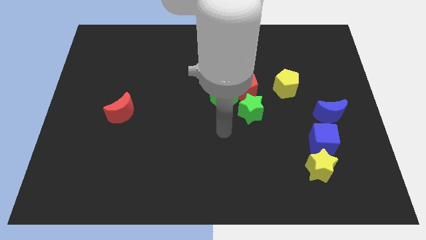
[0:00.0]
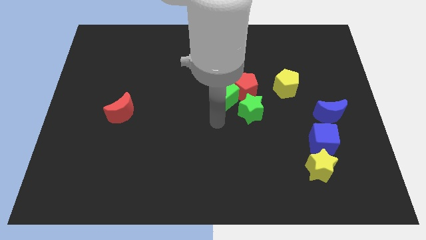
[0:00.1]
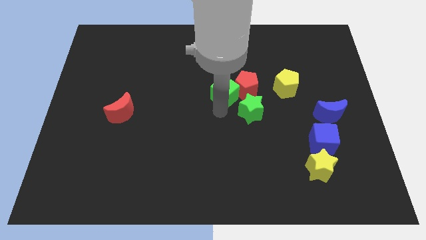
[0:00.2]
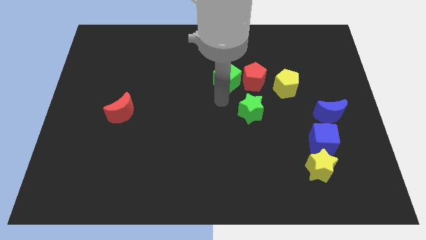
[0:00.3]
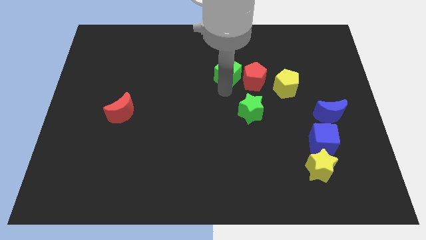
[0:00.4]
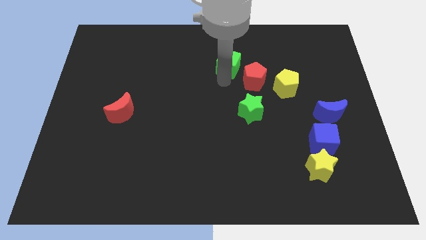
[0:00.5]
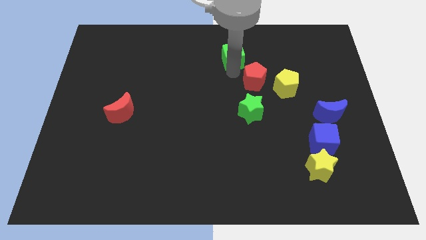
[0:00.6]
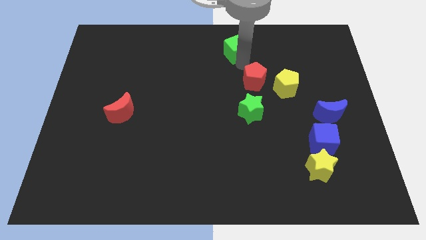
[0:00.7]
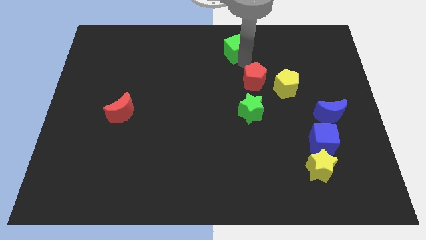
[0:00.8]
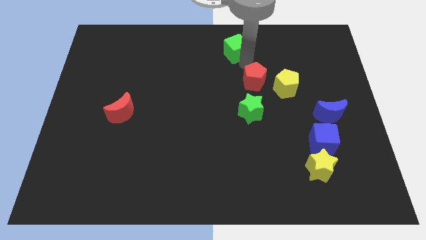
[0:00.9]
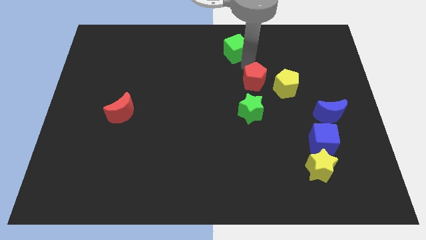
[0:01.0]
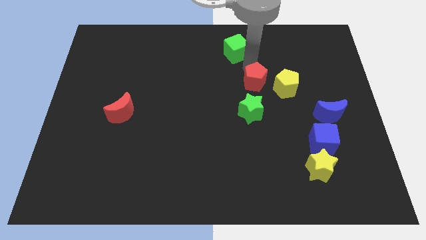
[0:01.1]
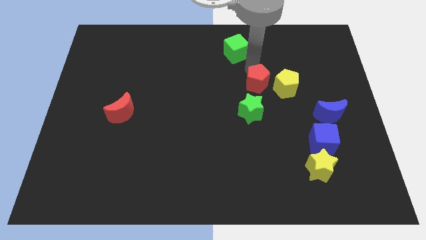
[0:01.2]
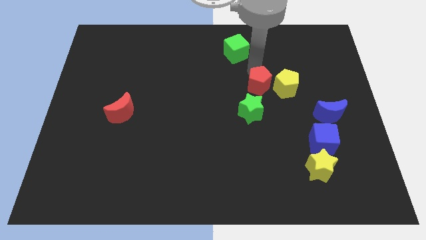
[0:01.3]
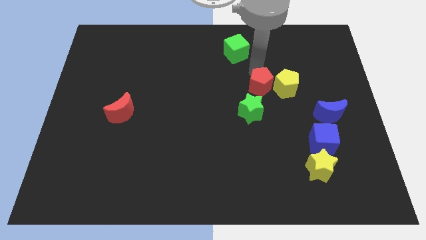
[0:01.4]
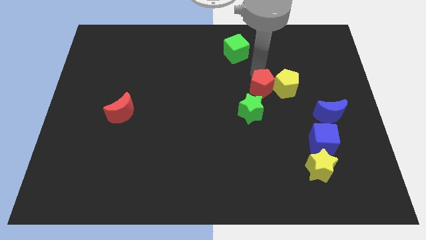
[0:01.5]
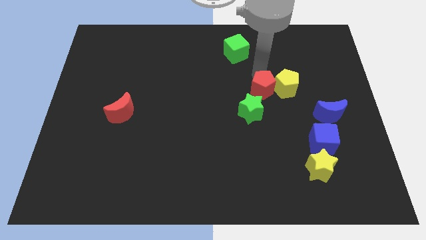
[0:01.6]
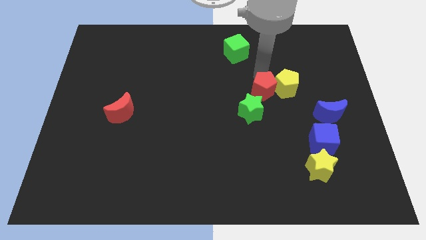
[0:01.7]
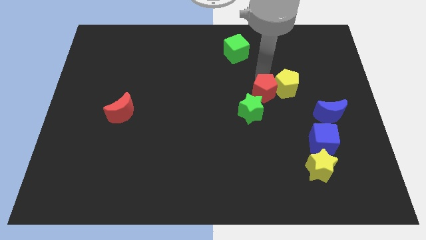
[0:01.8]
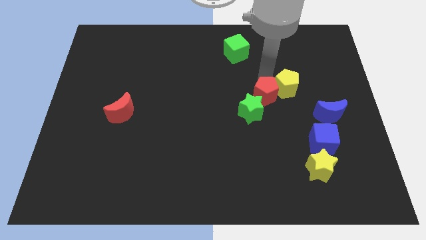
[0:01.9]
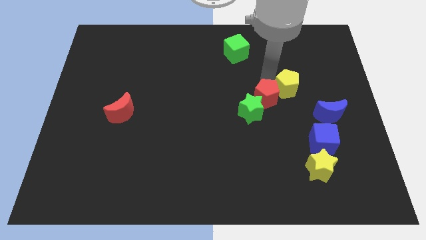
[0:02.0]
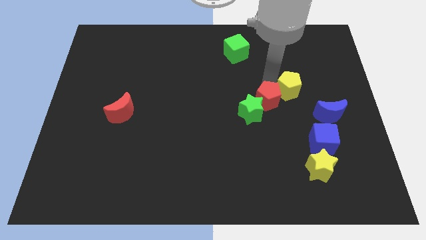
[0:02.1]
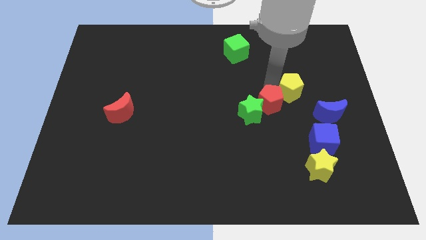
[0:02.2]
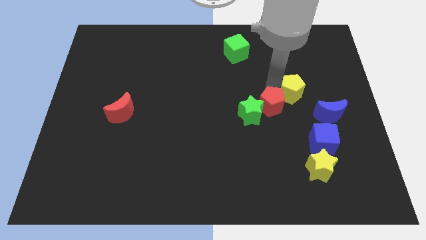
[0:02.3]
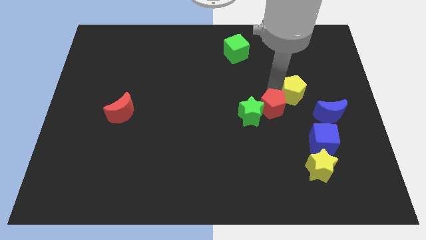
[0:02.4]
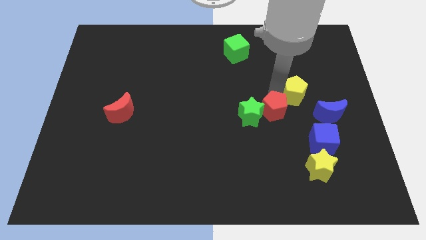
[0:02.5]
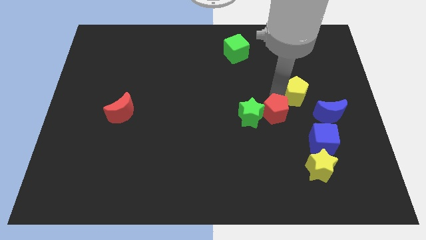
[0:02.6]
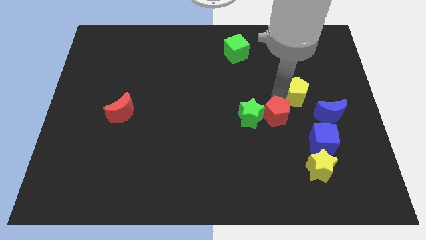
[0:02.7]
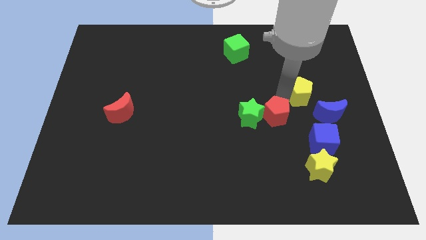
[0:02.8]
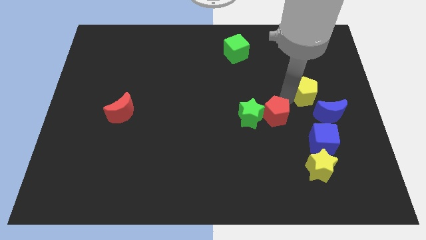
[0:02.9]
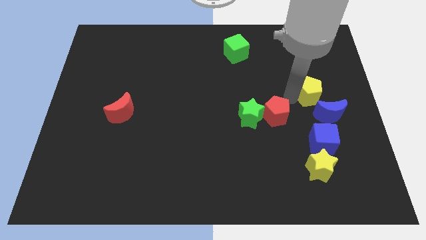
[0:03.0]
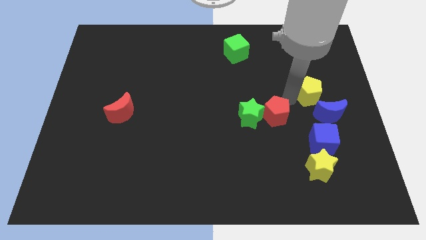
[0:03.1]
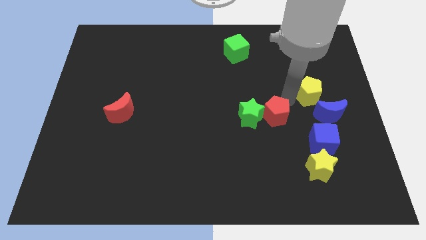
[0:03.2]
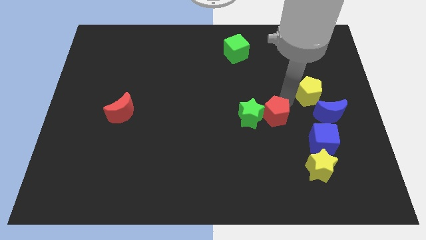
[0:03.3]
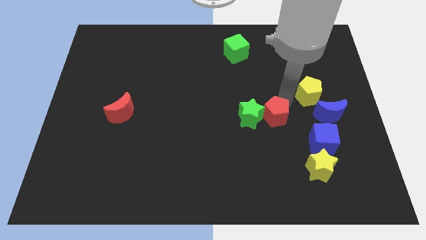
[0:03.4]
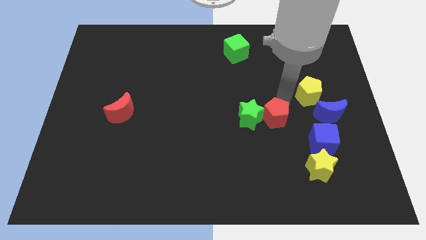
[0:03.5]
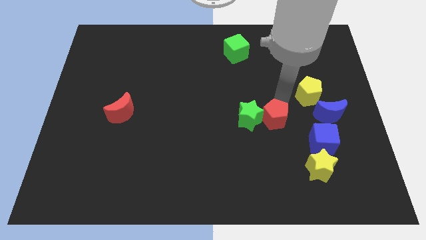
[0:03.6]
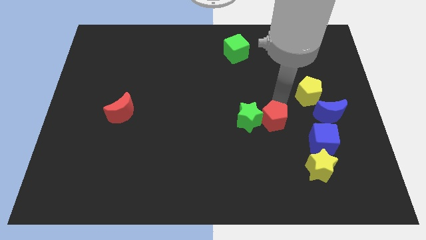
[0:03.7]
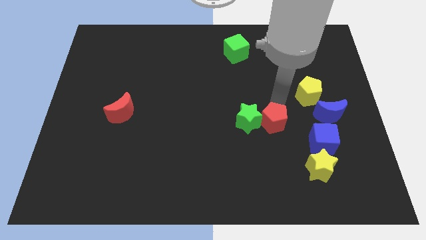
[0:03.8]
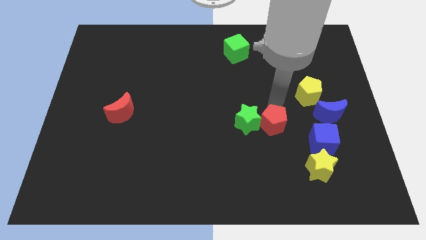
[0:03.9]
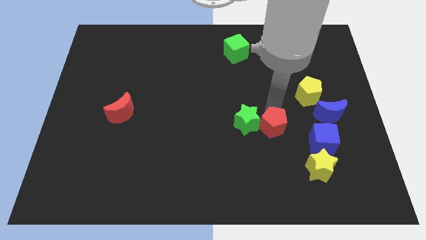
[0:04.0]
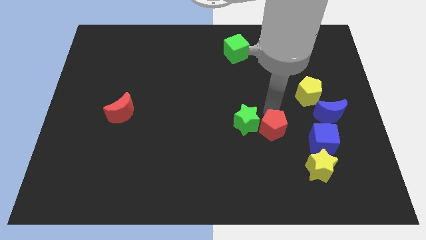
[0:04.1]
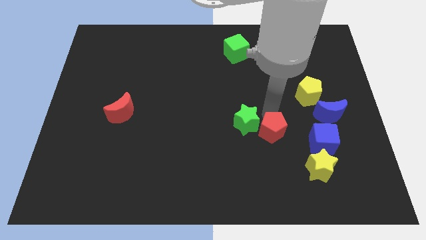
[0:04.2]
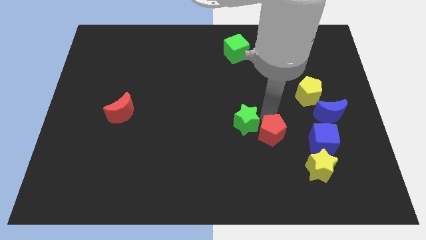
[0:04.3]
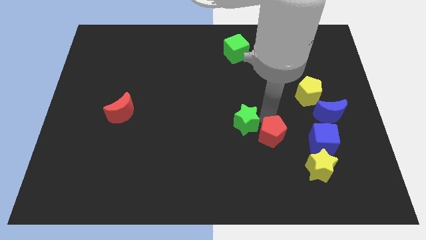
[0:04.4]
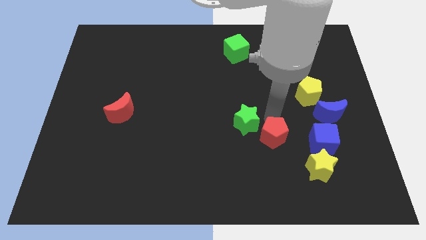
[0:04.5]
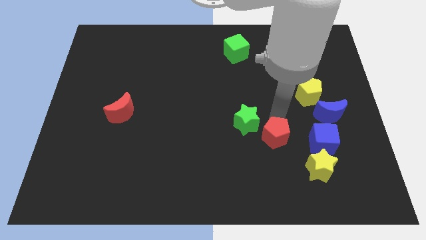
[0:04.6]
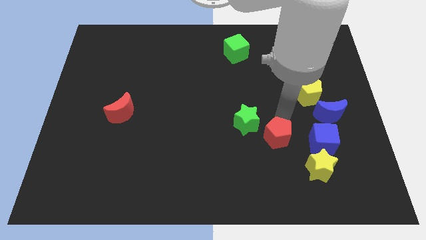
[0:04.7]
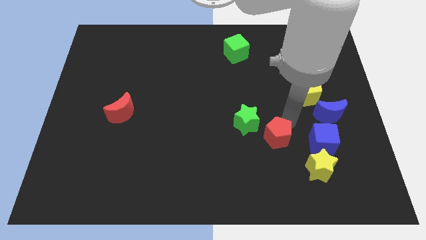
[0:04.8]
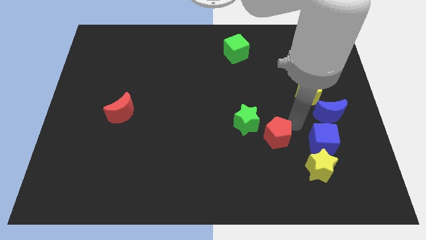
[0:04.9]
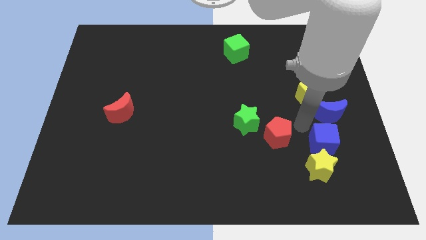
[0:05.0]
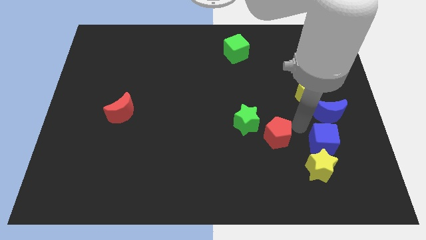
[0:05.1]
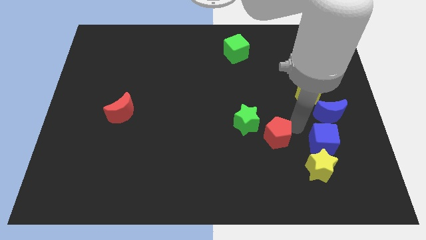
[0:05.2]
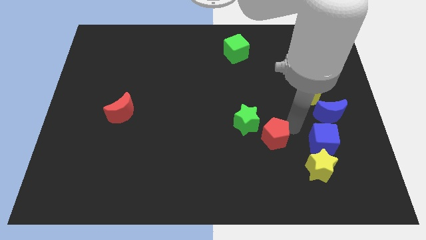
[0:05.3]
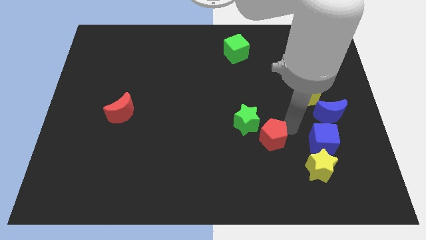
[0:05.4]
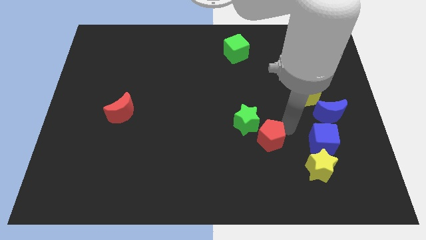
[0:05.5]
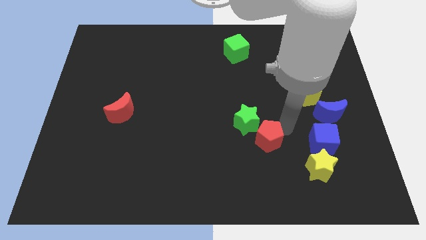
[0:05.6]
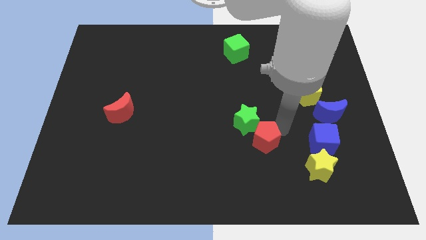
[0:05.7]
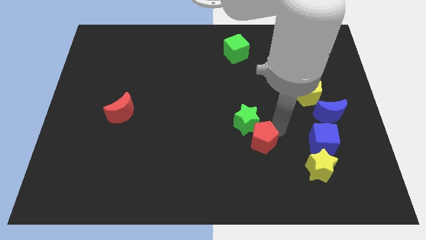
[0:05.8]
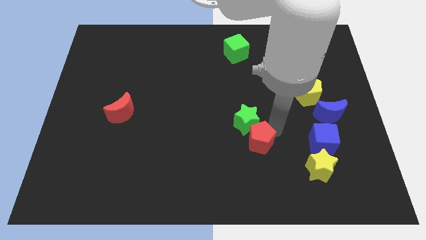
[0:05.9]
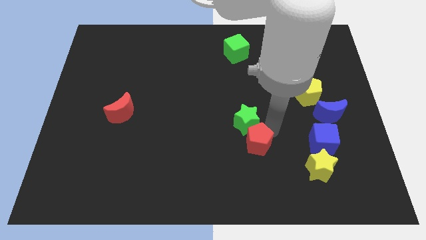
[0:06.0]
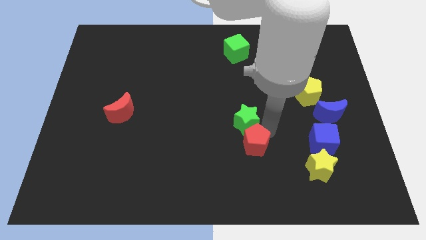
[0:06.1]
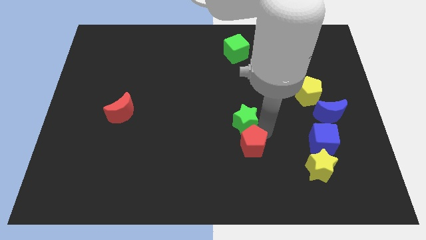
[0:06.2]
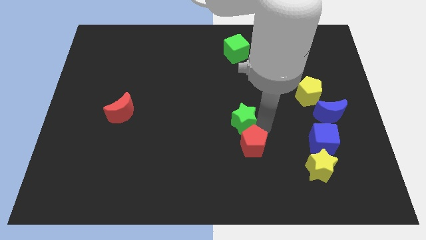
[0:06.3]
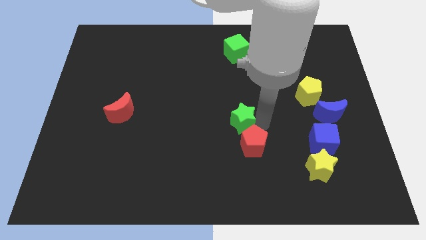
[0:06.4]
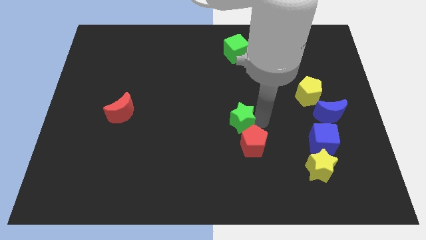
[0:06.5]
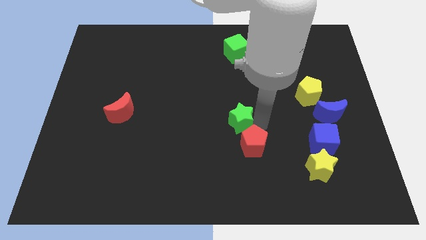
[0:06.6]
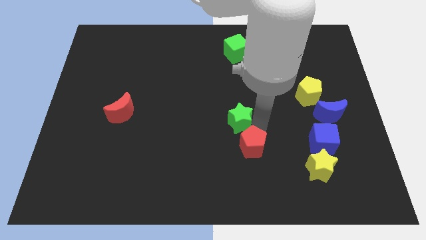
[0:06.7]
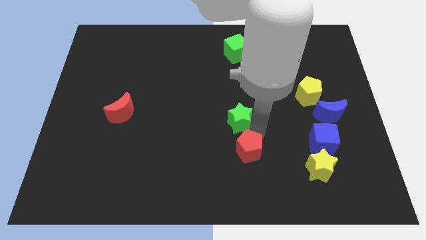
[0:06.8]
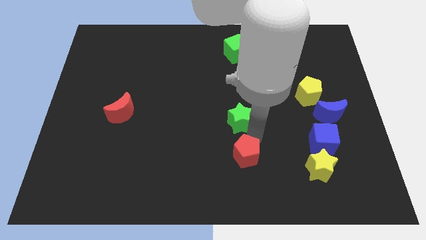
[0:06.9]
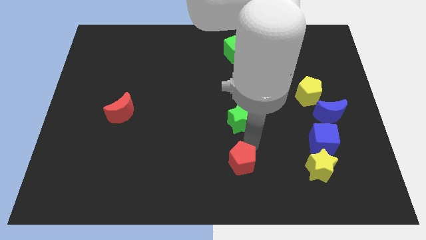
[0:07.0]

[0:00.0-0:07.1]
put the red pentagon to the bottom side
